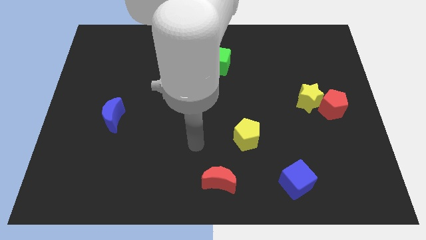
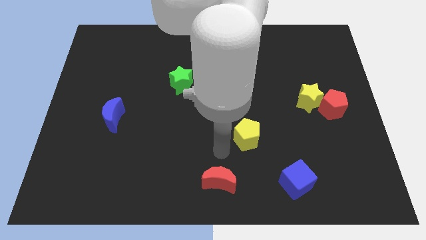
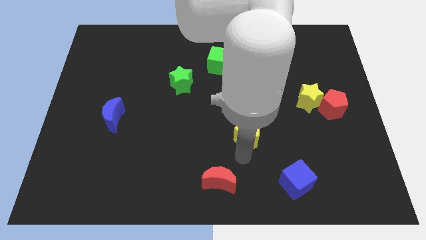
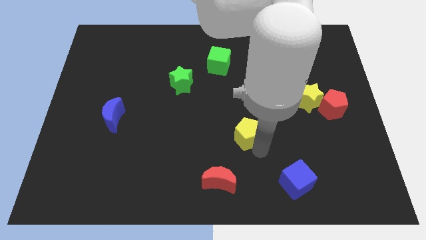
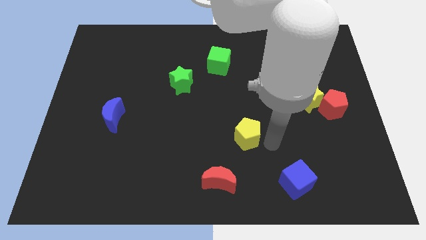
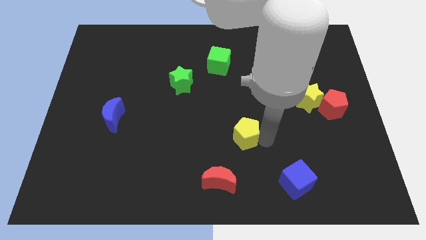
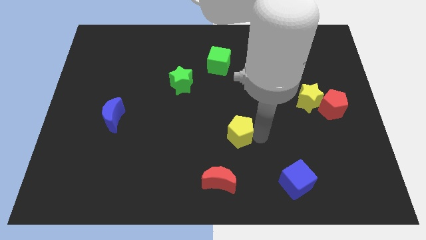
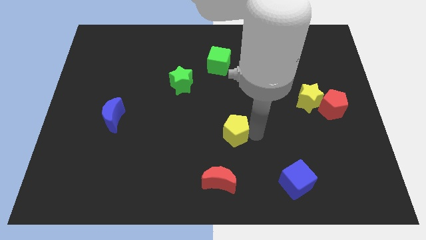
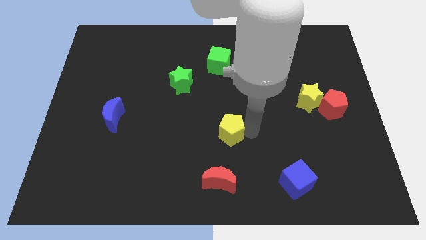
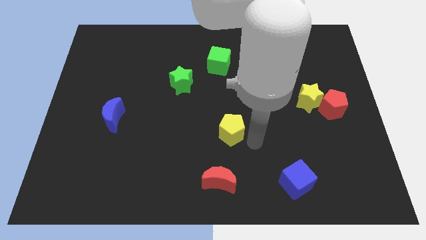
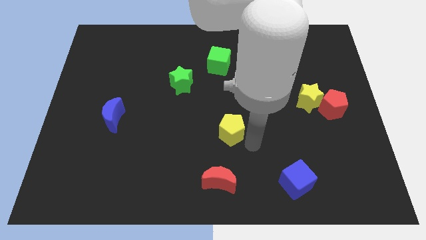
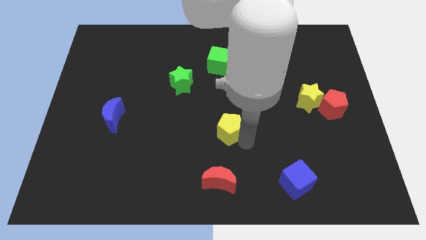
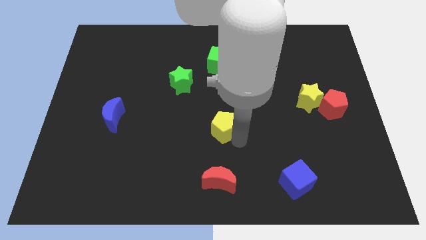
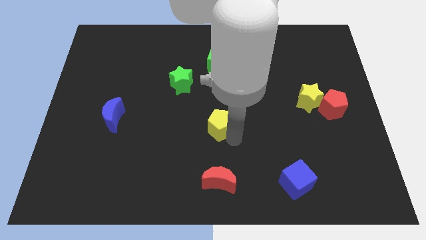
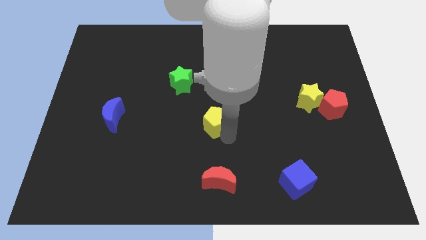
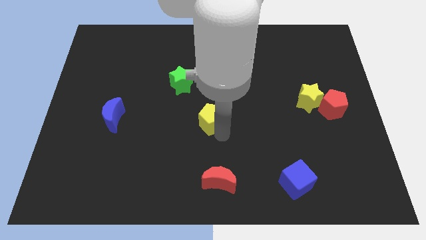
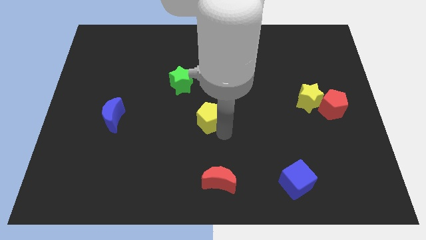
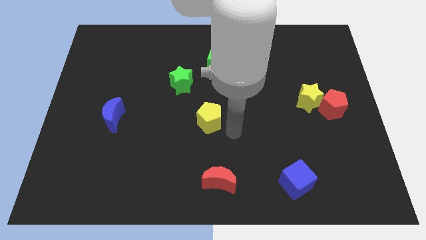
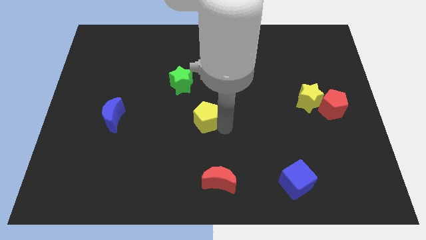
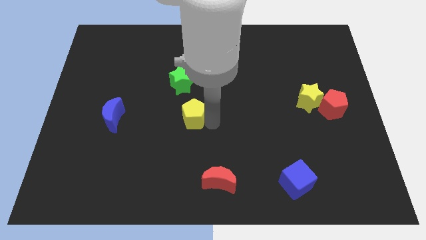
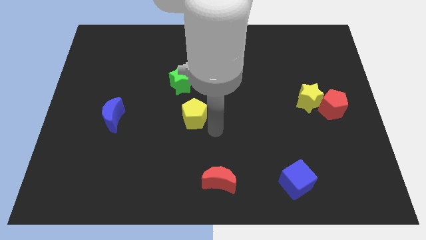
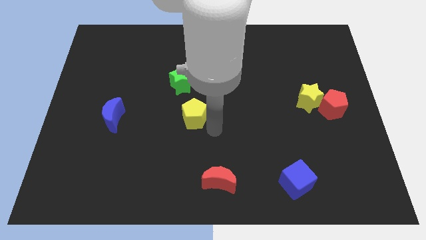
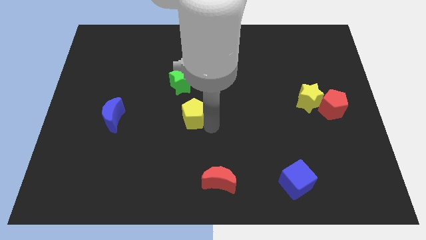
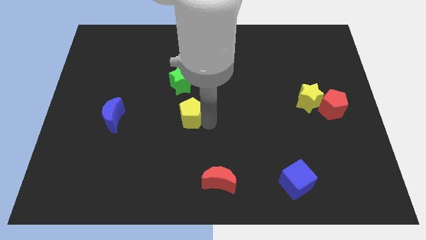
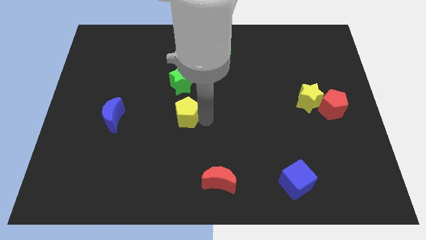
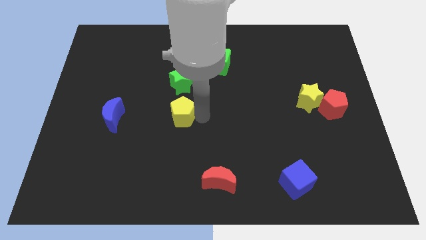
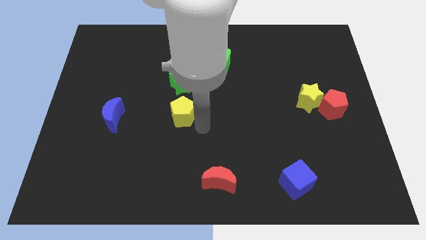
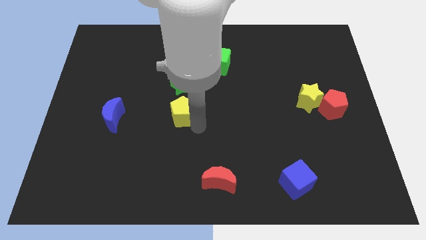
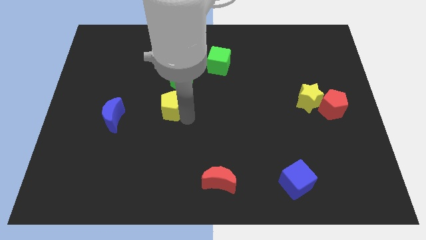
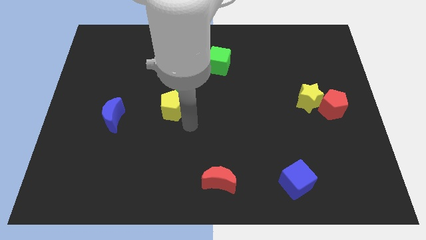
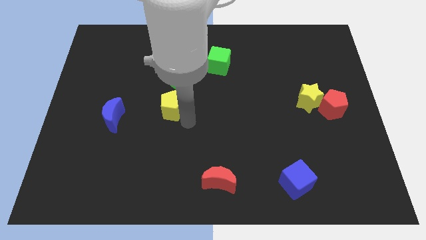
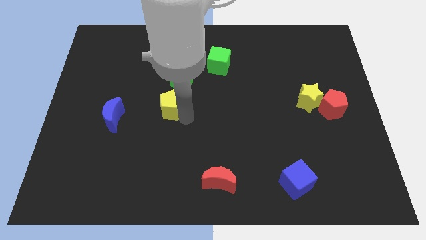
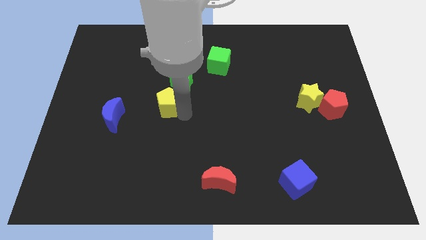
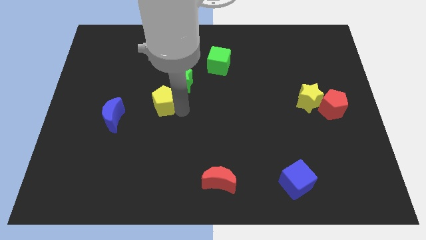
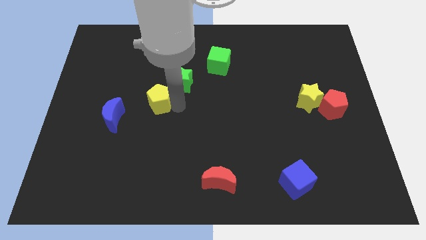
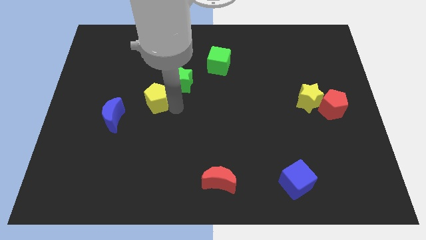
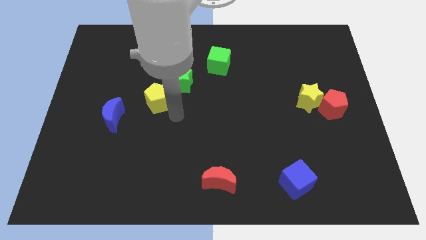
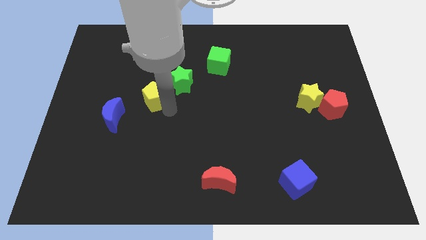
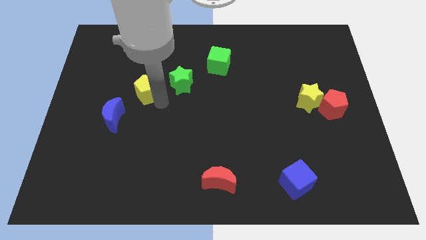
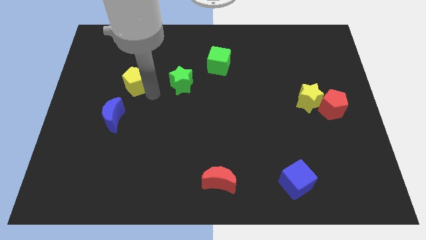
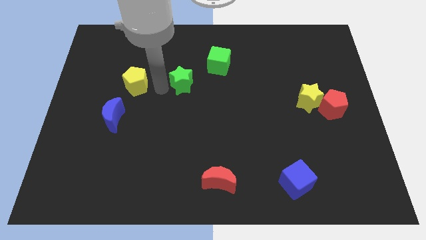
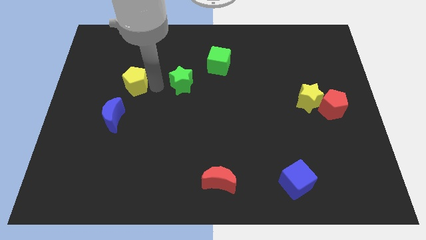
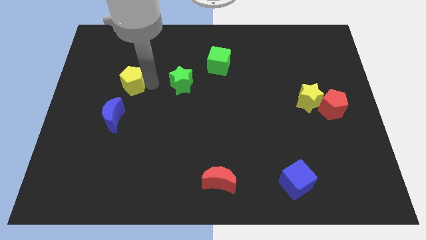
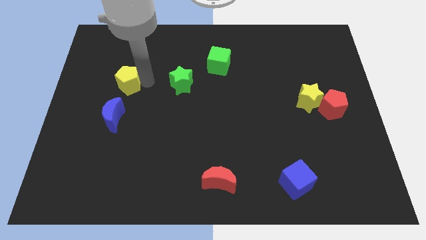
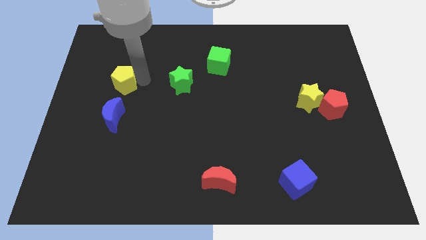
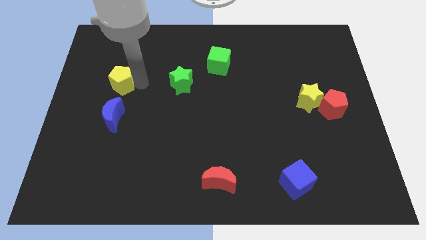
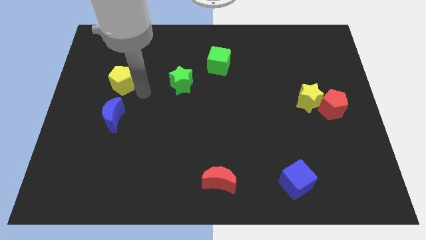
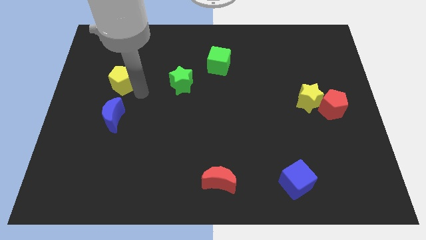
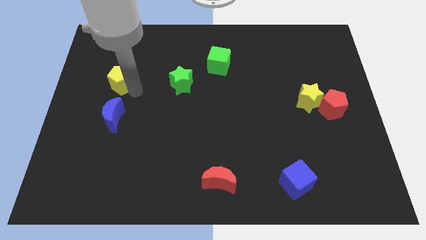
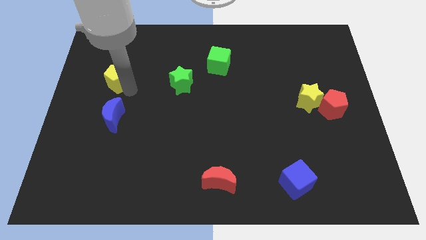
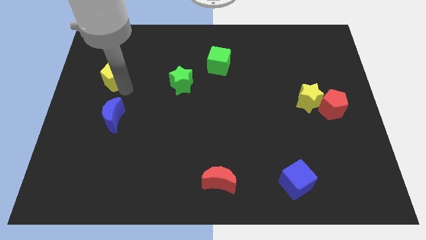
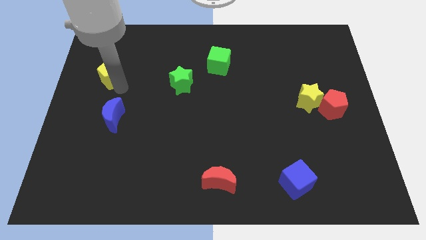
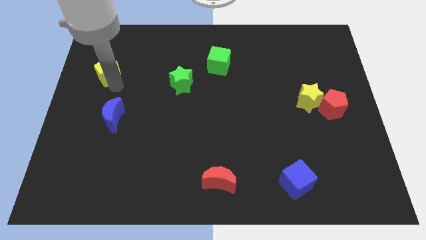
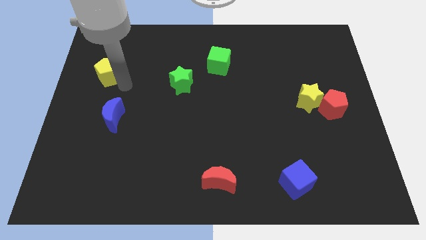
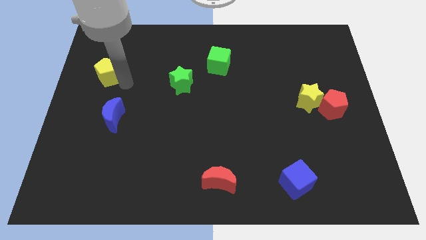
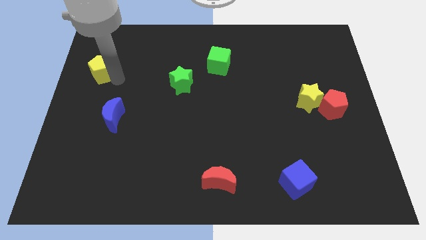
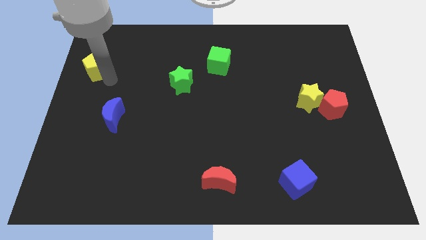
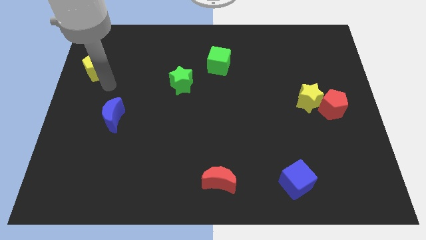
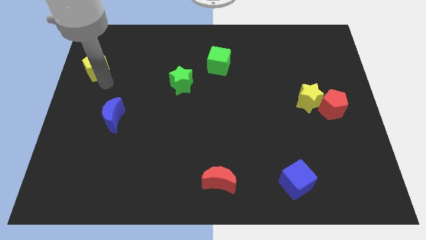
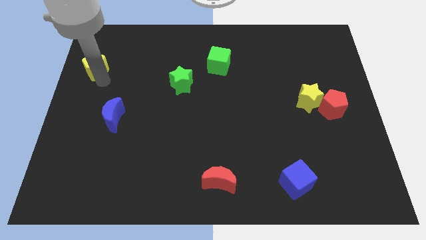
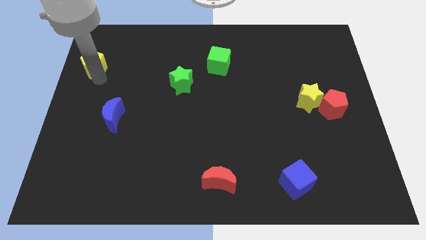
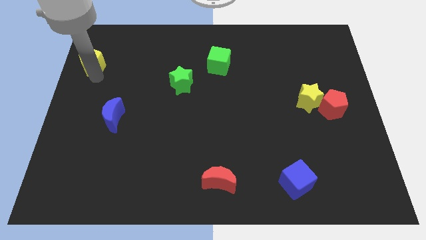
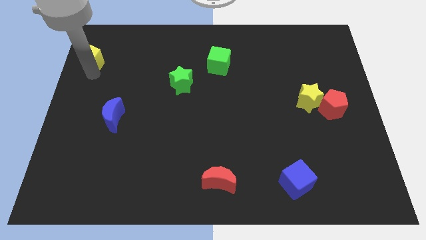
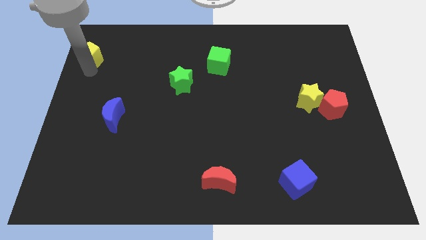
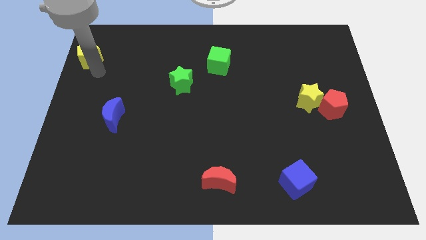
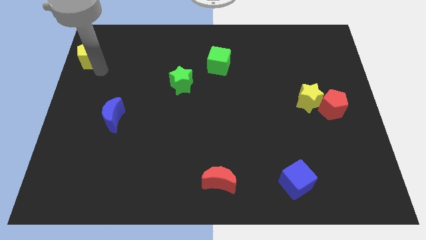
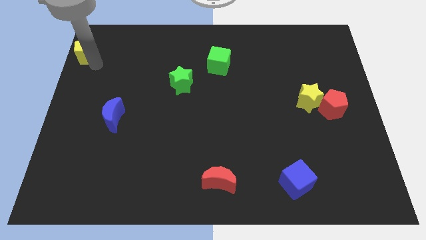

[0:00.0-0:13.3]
move the yellow pentagon to the top left
